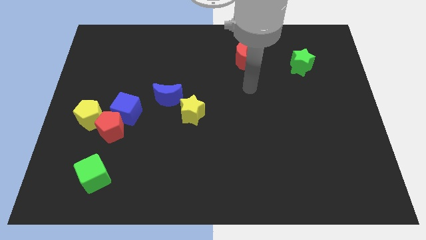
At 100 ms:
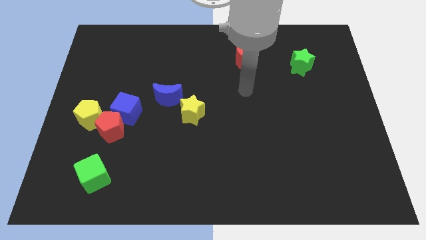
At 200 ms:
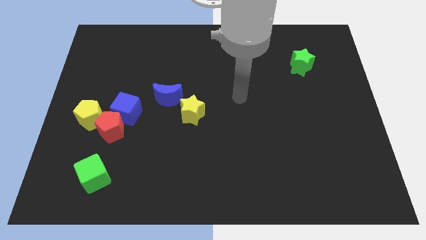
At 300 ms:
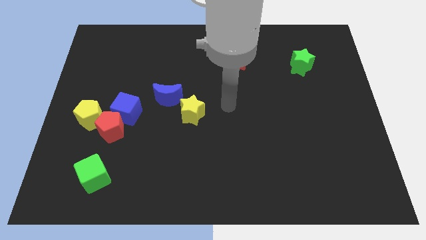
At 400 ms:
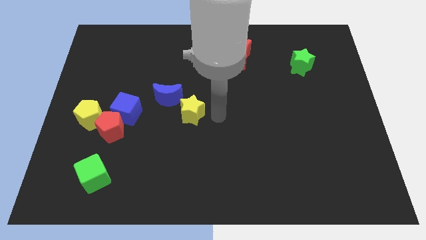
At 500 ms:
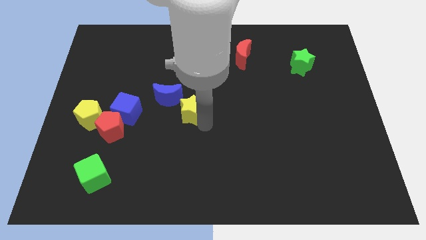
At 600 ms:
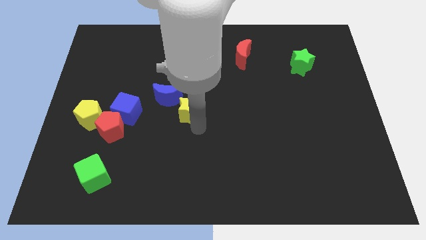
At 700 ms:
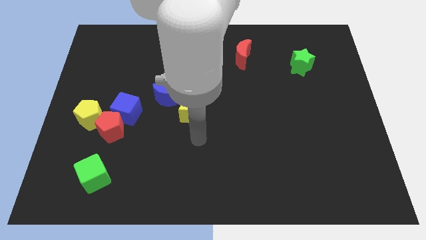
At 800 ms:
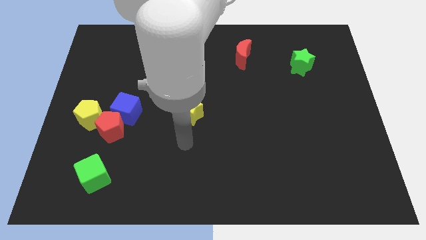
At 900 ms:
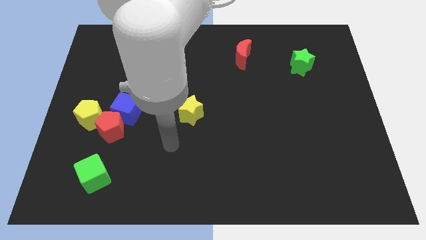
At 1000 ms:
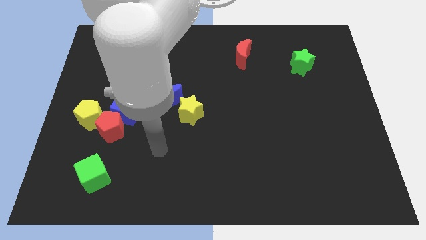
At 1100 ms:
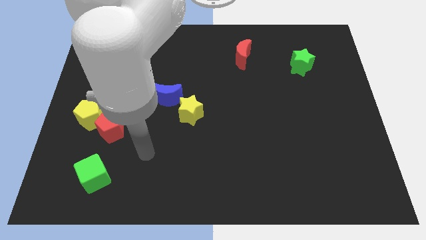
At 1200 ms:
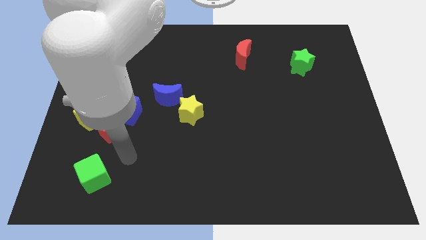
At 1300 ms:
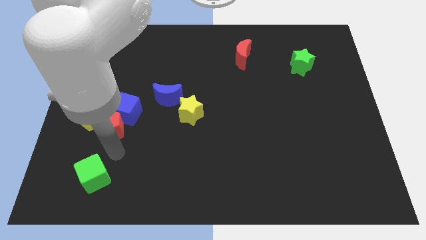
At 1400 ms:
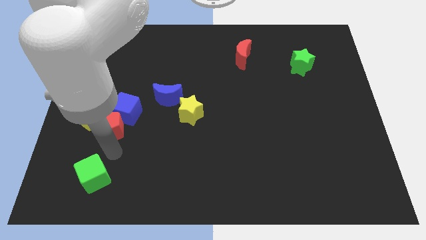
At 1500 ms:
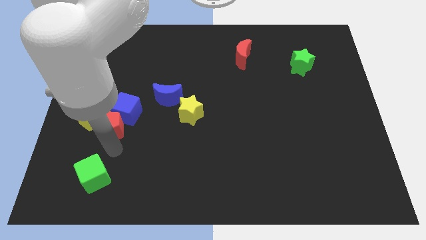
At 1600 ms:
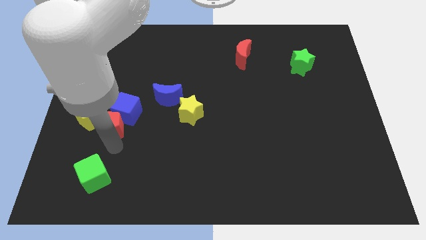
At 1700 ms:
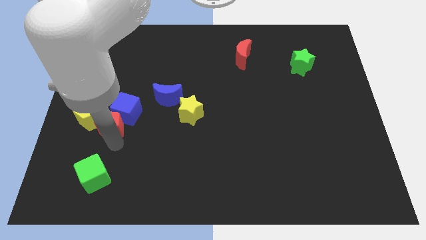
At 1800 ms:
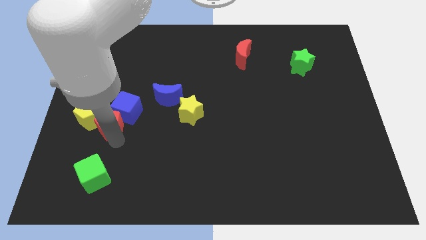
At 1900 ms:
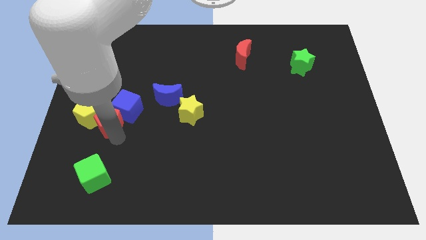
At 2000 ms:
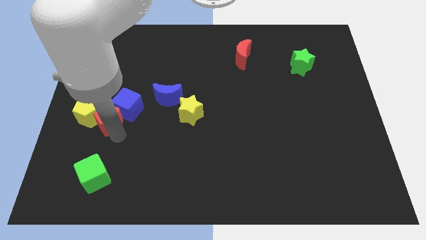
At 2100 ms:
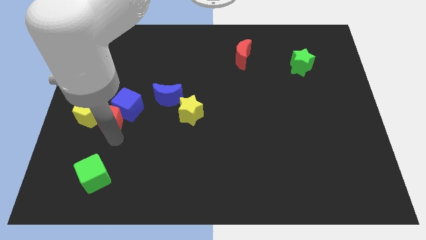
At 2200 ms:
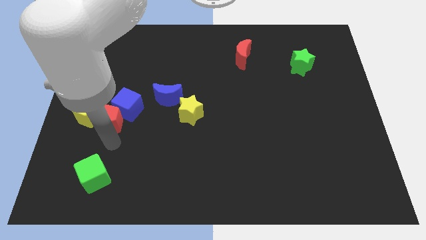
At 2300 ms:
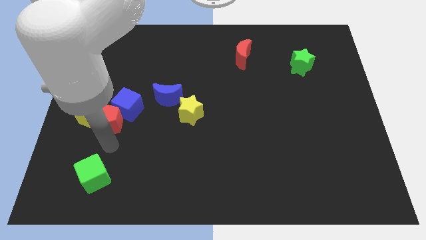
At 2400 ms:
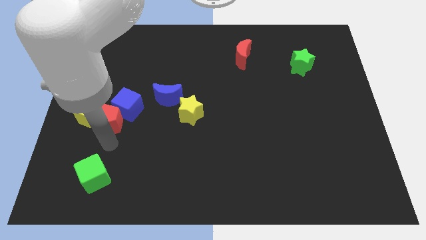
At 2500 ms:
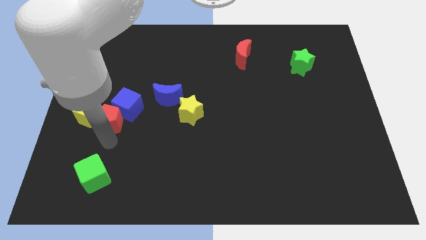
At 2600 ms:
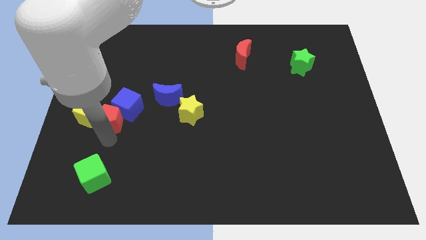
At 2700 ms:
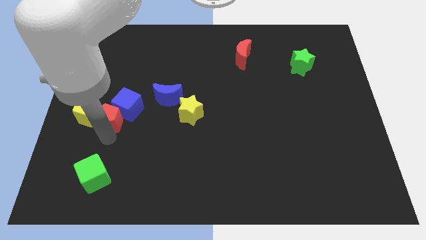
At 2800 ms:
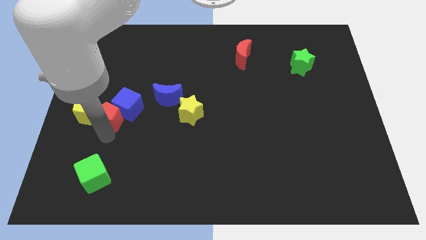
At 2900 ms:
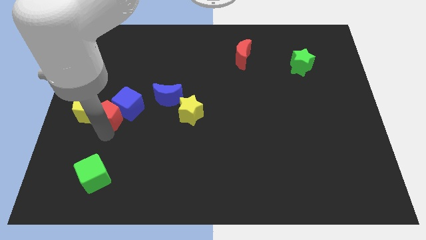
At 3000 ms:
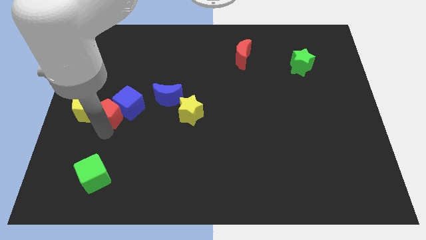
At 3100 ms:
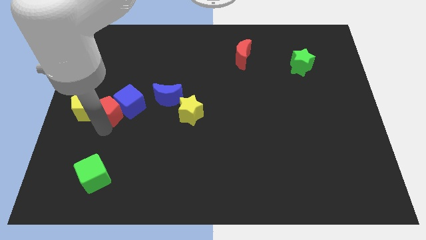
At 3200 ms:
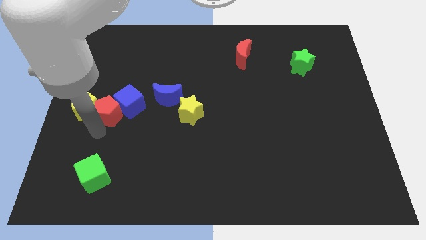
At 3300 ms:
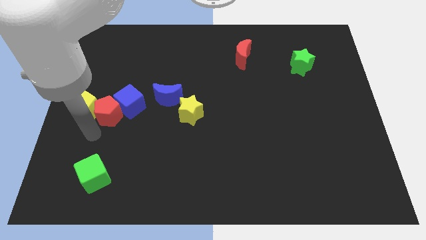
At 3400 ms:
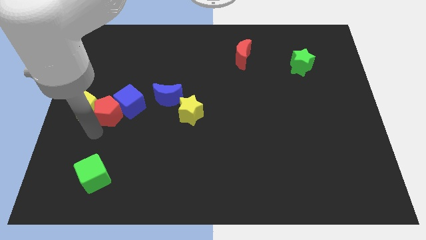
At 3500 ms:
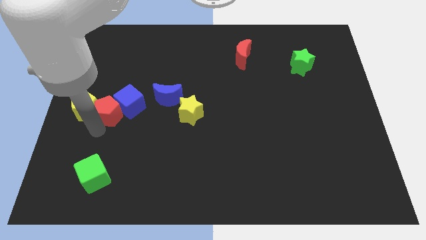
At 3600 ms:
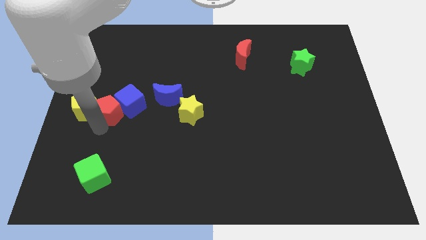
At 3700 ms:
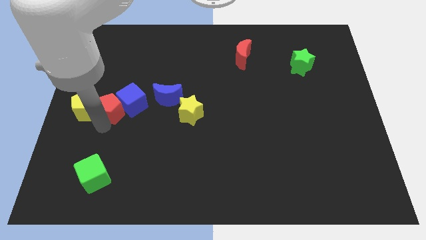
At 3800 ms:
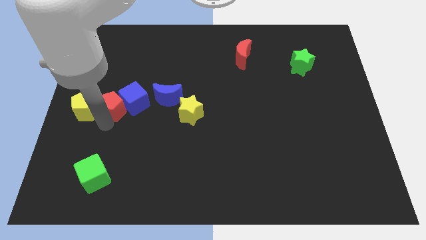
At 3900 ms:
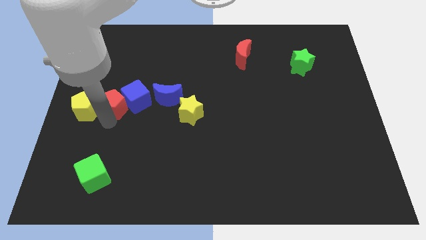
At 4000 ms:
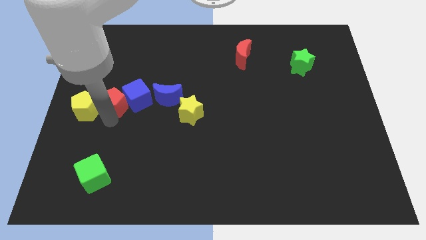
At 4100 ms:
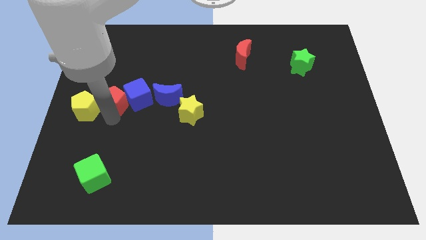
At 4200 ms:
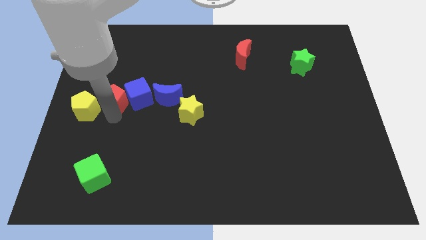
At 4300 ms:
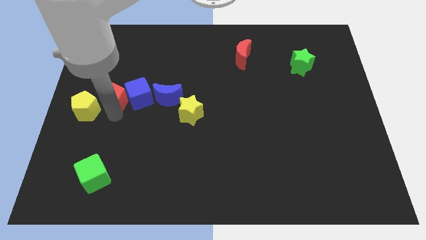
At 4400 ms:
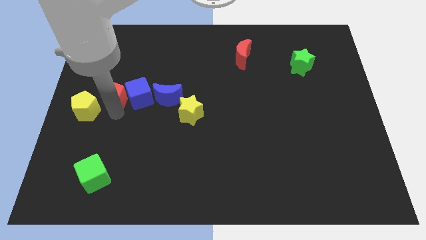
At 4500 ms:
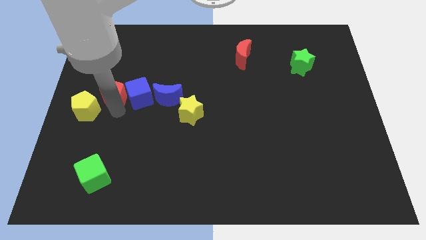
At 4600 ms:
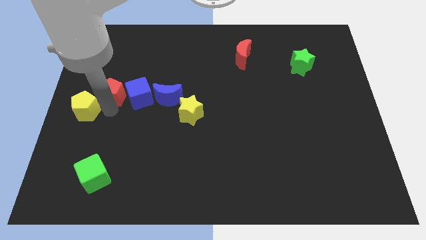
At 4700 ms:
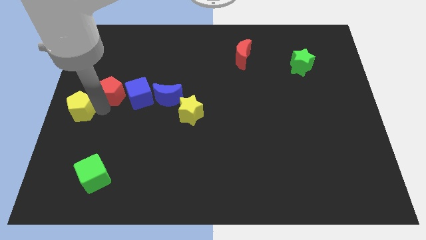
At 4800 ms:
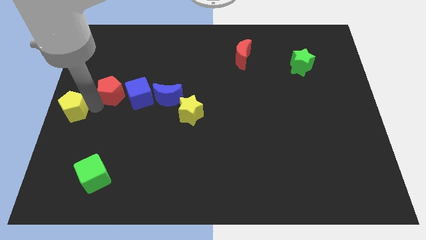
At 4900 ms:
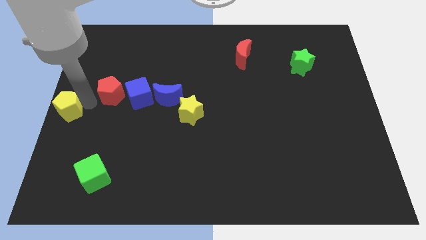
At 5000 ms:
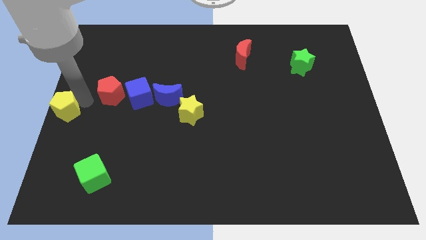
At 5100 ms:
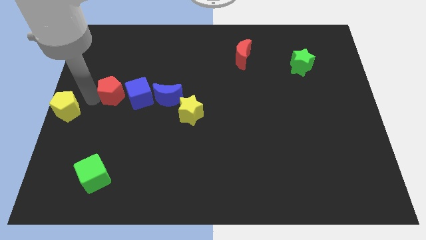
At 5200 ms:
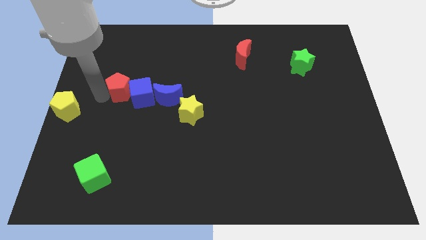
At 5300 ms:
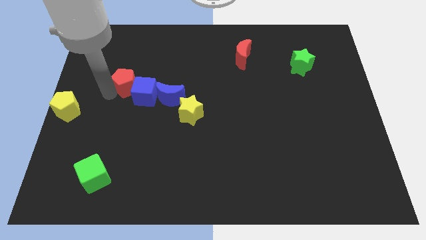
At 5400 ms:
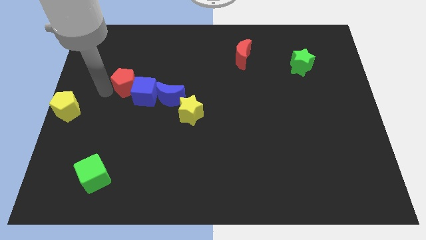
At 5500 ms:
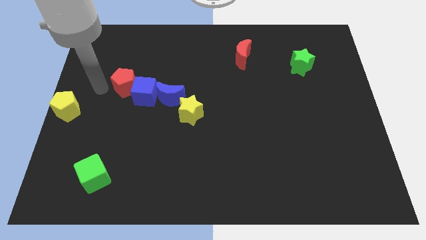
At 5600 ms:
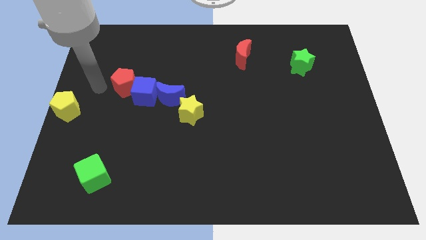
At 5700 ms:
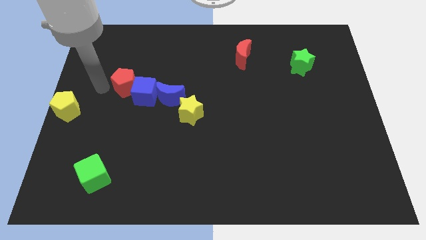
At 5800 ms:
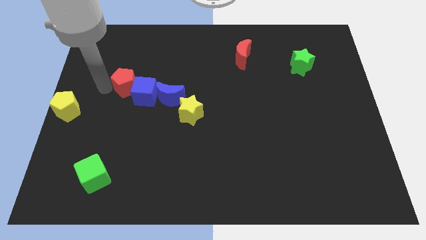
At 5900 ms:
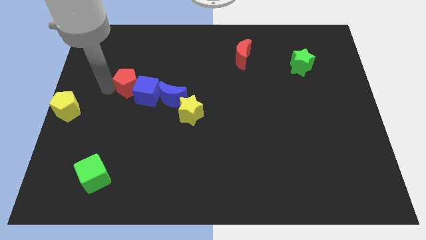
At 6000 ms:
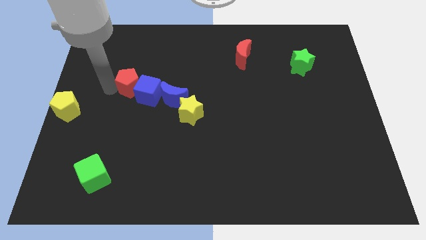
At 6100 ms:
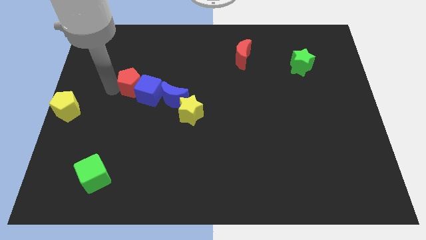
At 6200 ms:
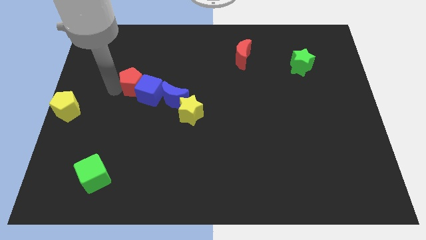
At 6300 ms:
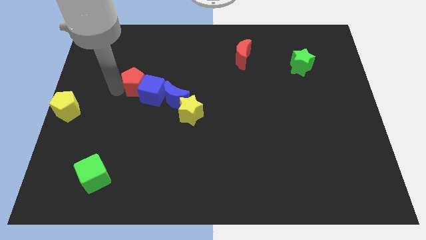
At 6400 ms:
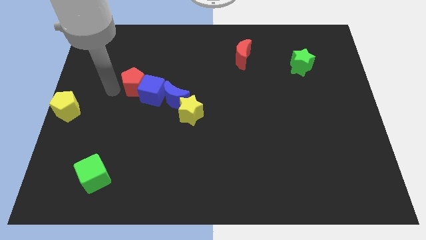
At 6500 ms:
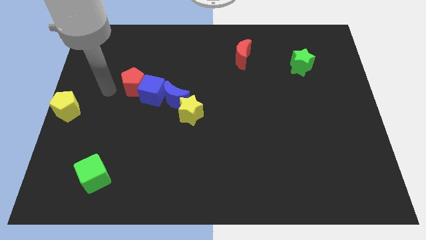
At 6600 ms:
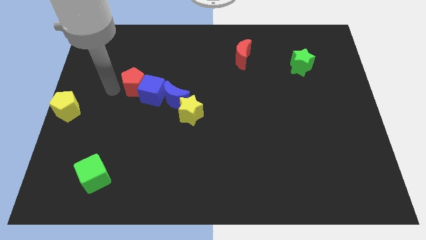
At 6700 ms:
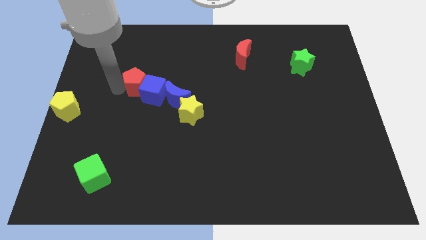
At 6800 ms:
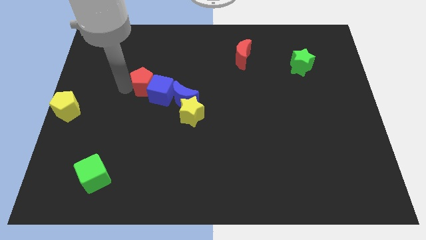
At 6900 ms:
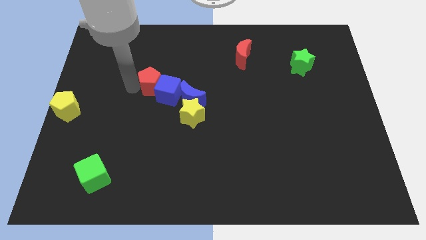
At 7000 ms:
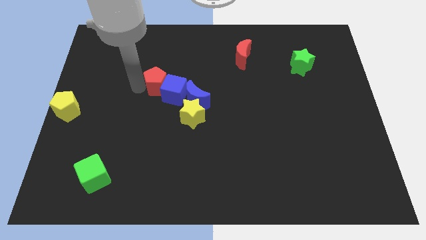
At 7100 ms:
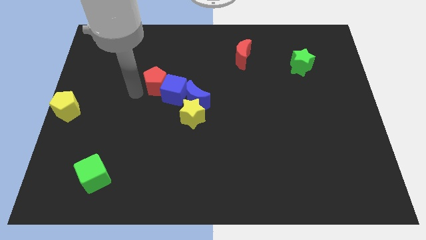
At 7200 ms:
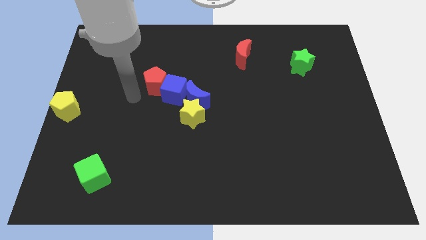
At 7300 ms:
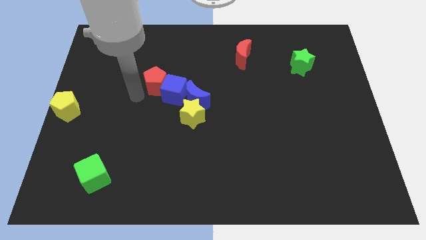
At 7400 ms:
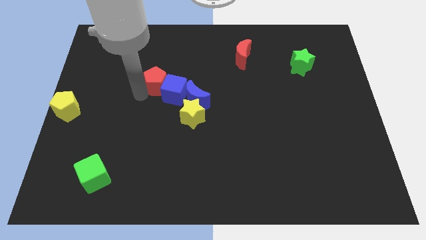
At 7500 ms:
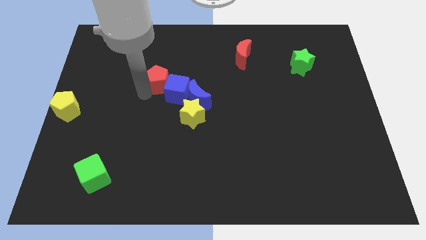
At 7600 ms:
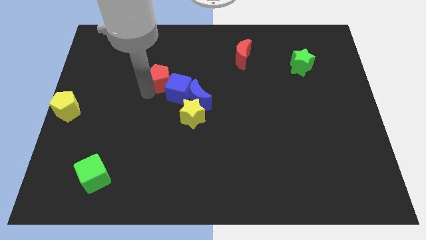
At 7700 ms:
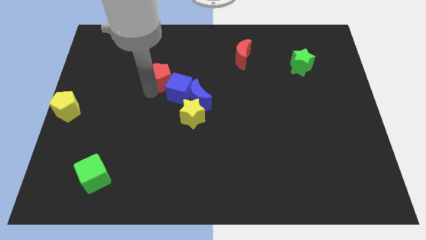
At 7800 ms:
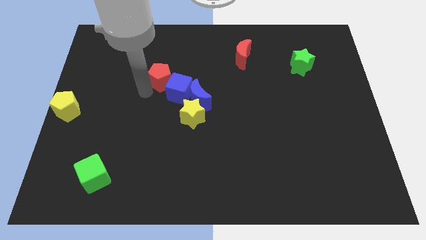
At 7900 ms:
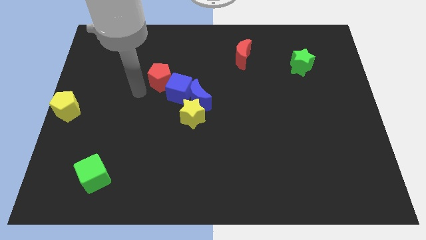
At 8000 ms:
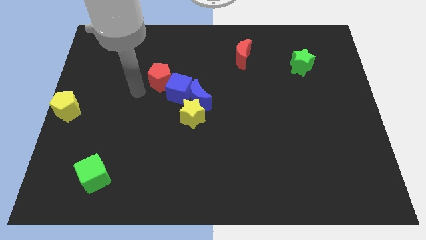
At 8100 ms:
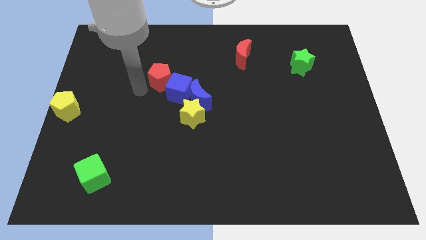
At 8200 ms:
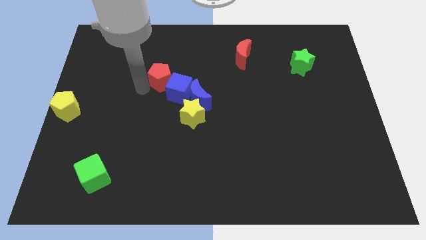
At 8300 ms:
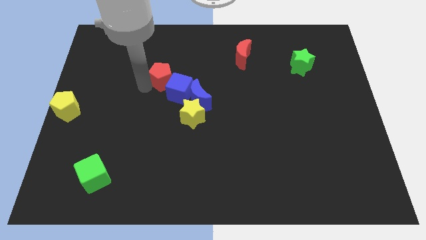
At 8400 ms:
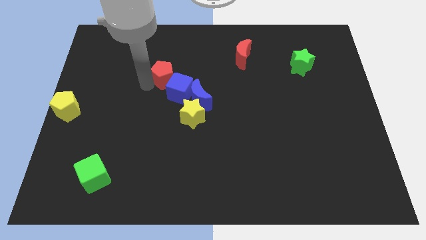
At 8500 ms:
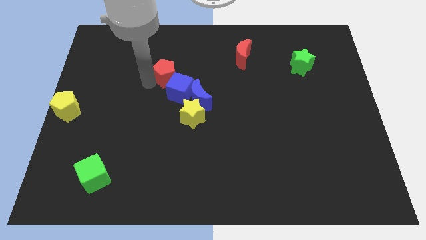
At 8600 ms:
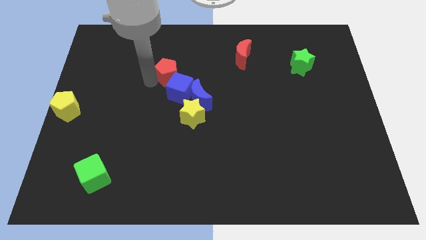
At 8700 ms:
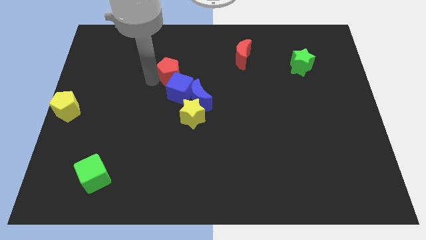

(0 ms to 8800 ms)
slide the red pentagon upwards and then to the right
